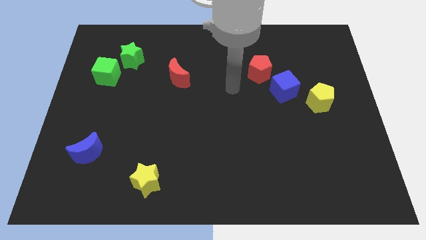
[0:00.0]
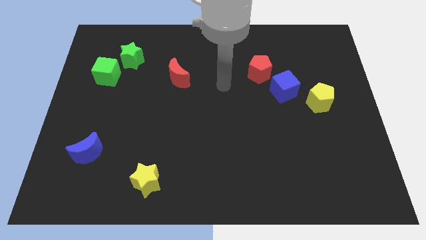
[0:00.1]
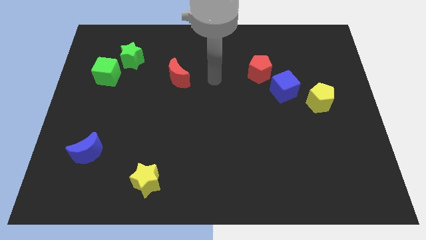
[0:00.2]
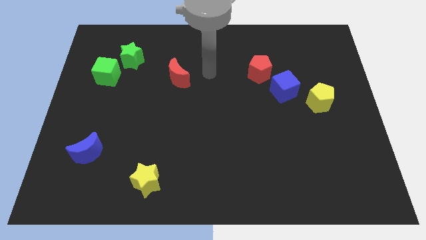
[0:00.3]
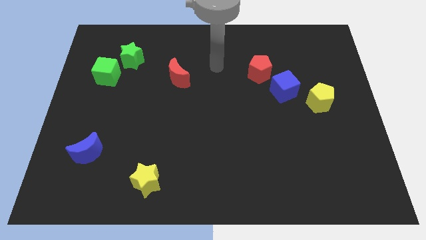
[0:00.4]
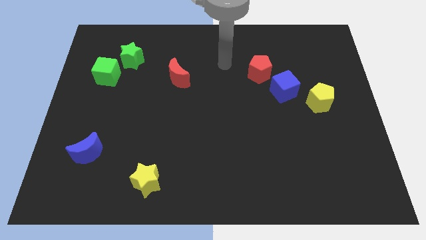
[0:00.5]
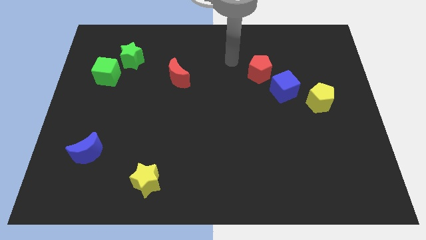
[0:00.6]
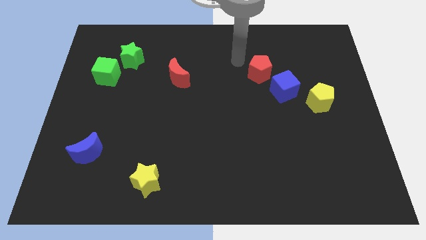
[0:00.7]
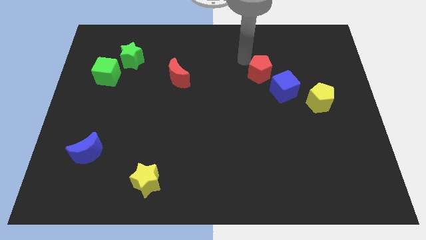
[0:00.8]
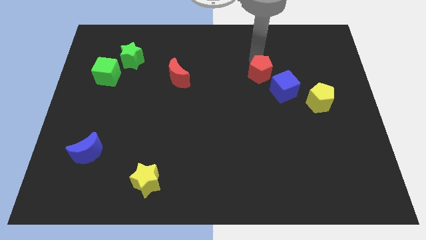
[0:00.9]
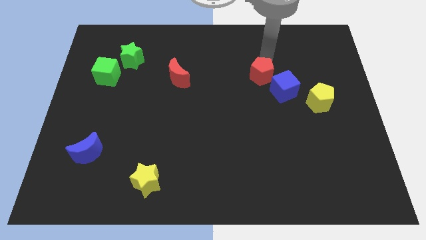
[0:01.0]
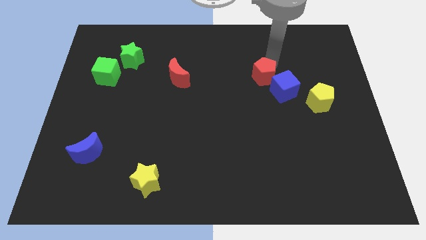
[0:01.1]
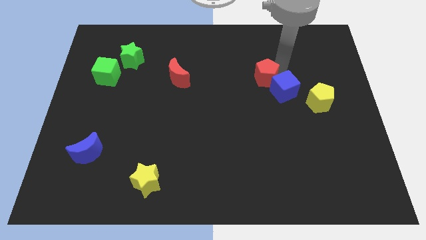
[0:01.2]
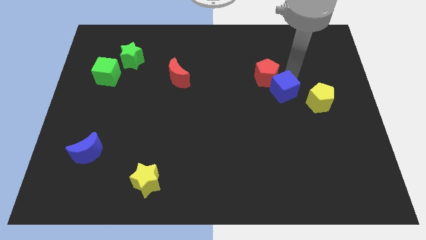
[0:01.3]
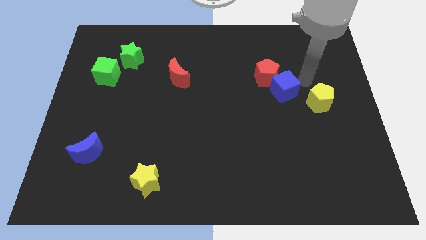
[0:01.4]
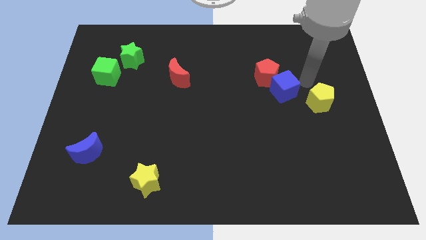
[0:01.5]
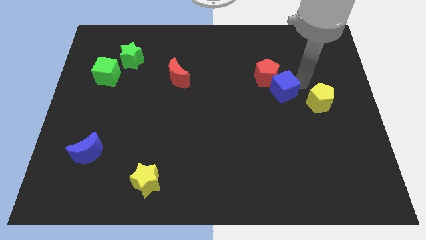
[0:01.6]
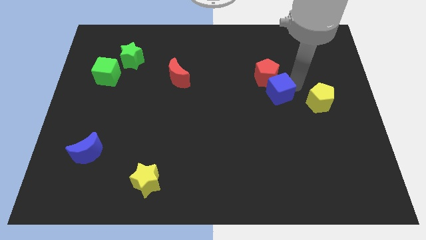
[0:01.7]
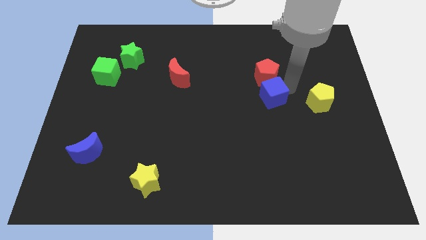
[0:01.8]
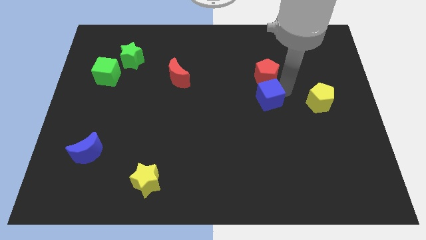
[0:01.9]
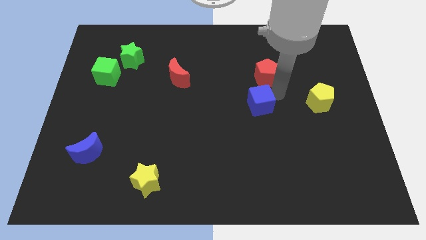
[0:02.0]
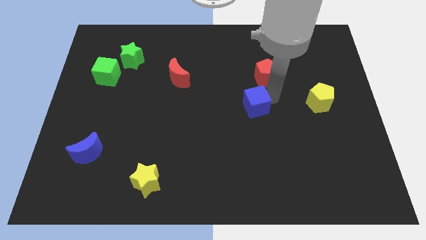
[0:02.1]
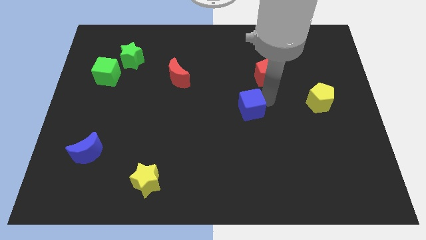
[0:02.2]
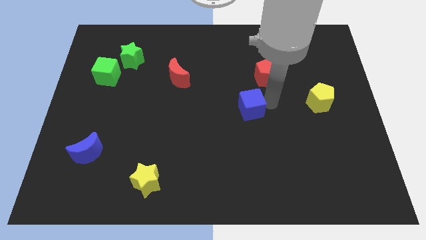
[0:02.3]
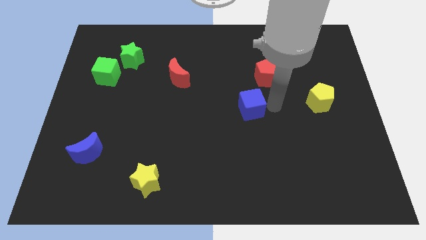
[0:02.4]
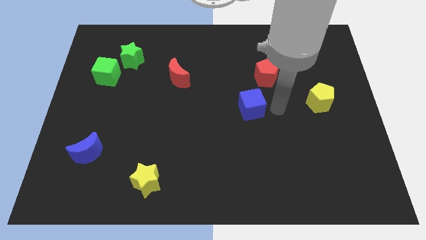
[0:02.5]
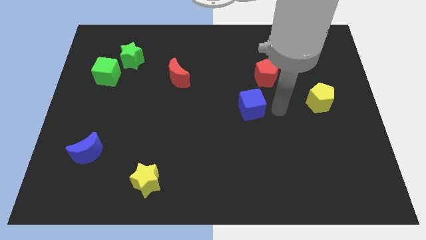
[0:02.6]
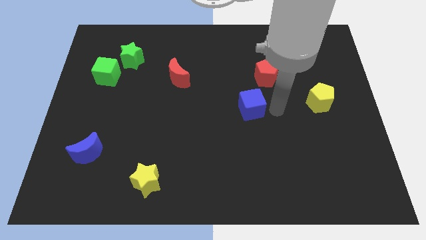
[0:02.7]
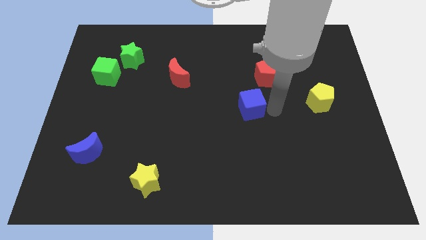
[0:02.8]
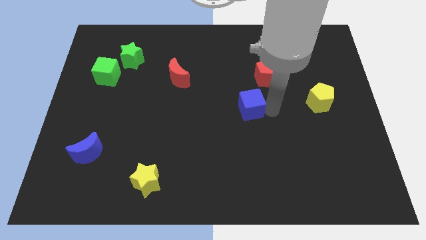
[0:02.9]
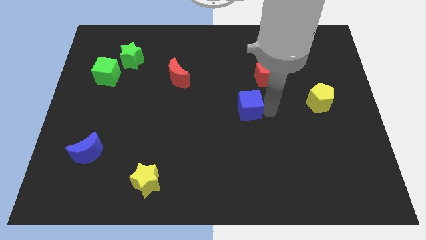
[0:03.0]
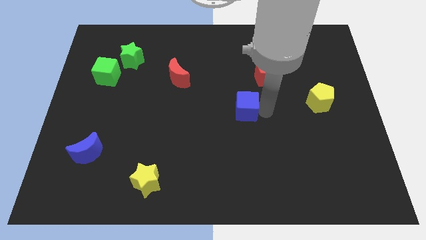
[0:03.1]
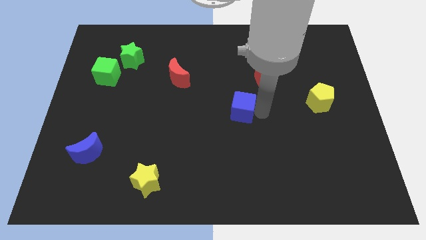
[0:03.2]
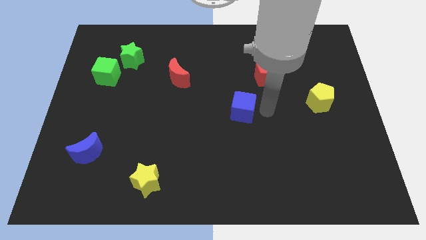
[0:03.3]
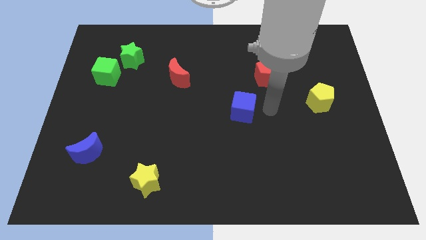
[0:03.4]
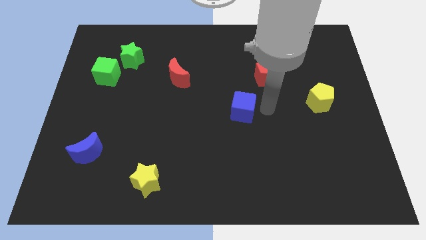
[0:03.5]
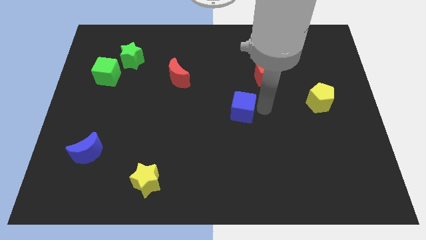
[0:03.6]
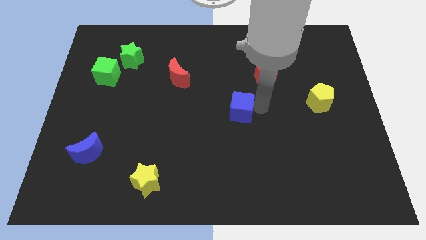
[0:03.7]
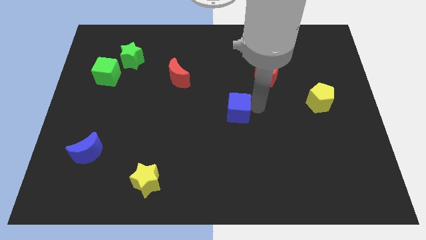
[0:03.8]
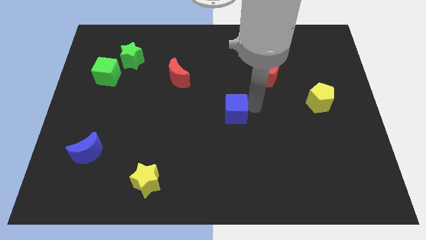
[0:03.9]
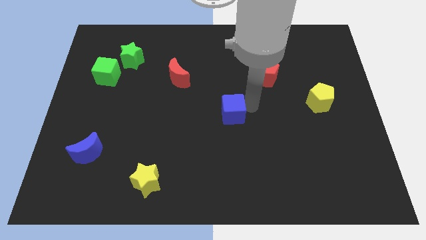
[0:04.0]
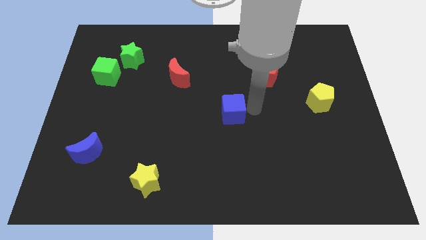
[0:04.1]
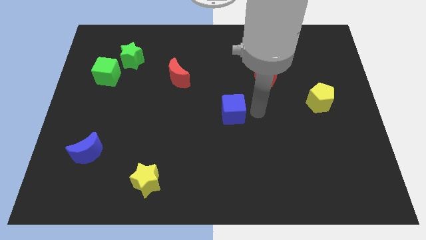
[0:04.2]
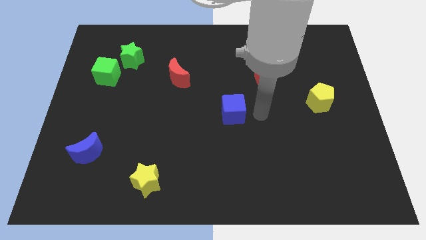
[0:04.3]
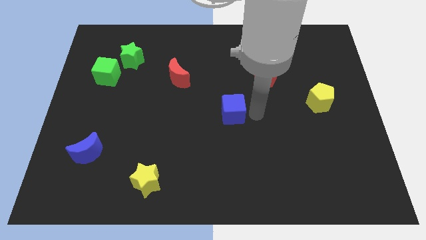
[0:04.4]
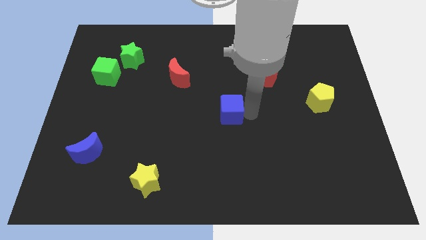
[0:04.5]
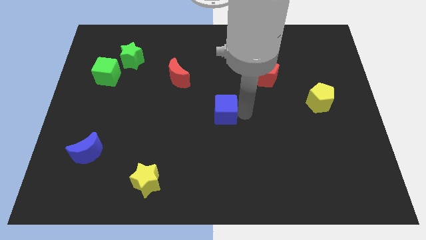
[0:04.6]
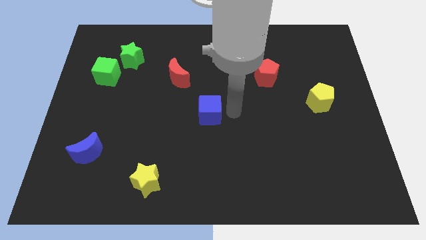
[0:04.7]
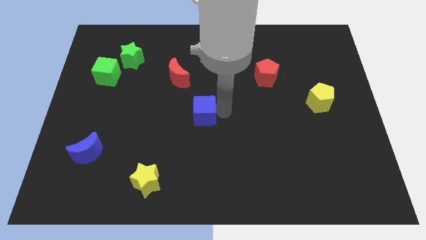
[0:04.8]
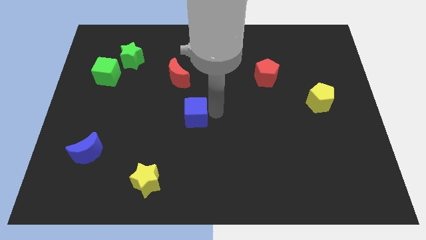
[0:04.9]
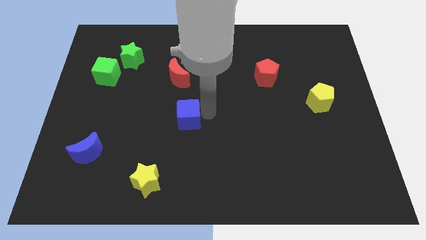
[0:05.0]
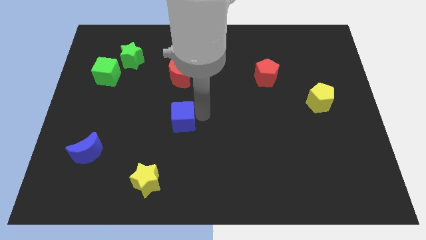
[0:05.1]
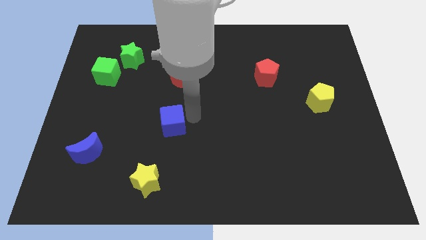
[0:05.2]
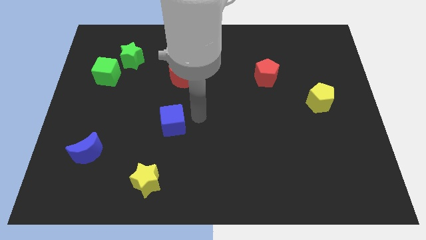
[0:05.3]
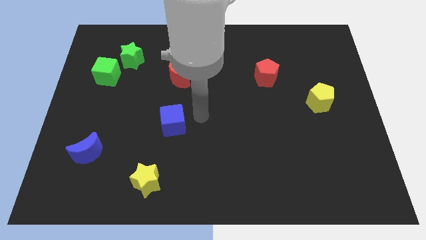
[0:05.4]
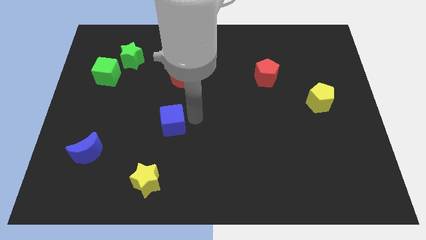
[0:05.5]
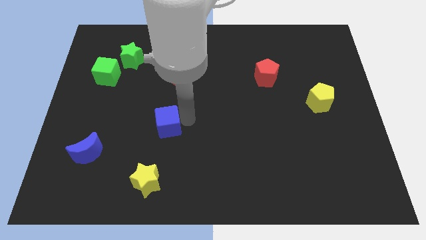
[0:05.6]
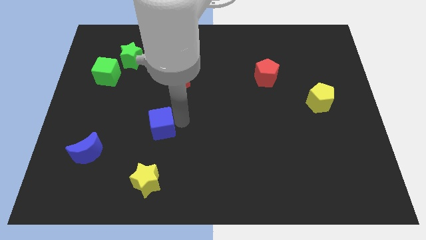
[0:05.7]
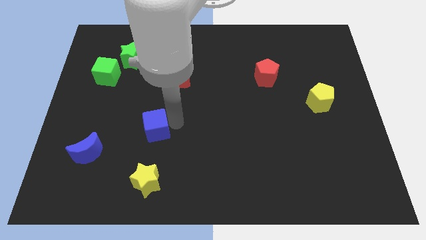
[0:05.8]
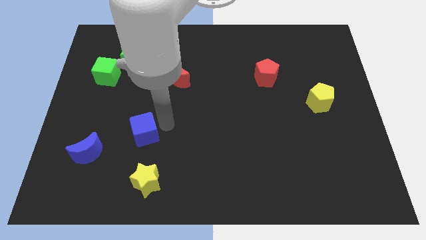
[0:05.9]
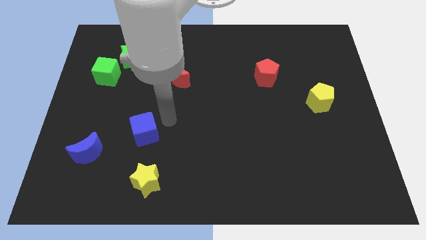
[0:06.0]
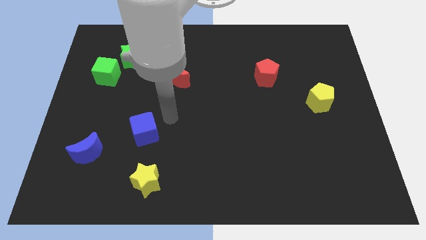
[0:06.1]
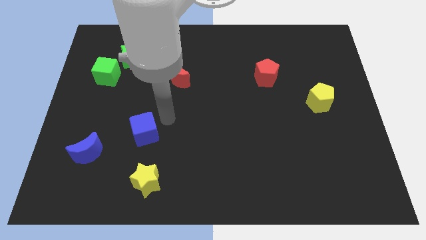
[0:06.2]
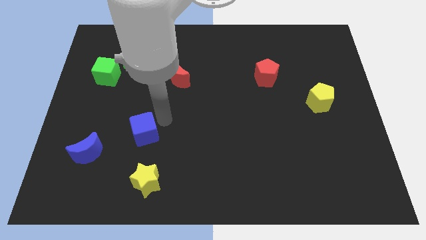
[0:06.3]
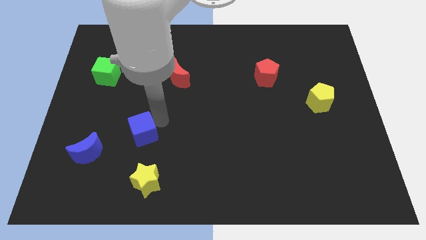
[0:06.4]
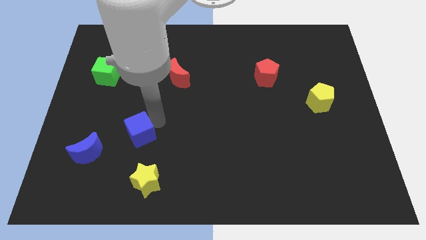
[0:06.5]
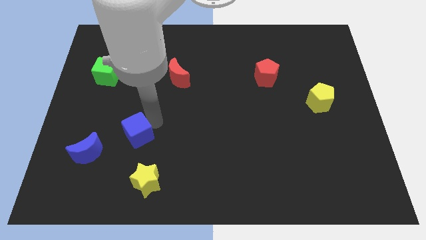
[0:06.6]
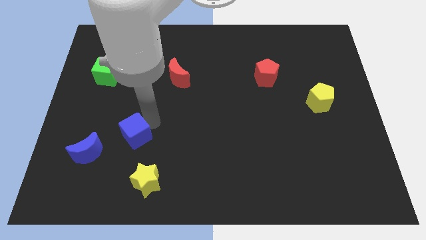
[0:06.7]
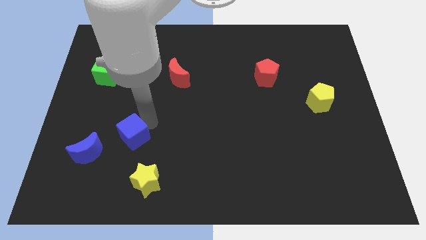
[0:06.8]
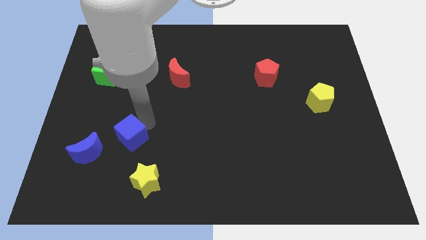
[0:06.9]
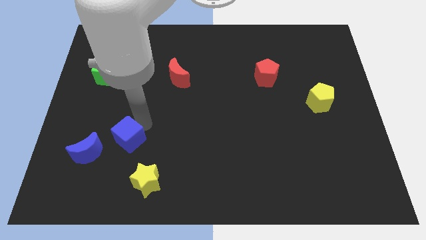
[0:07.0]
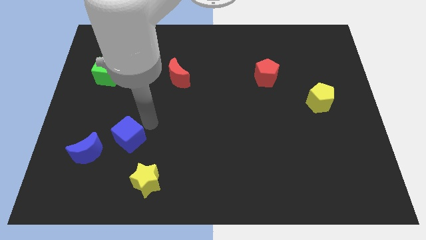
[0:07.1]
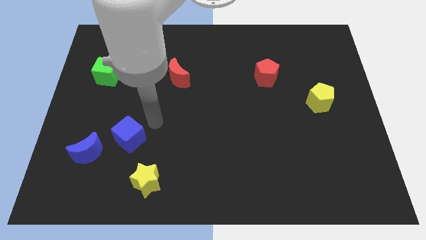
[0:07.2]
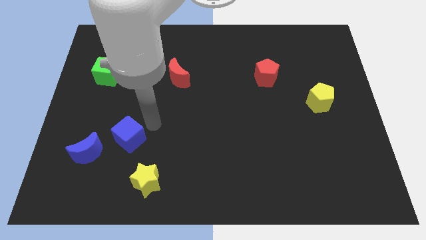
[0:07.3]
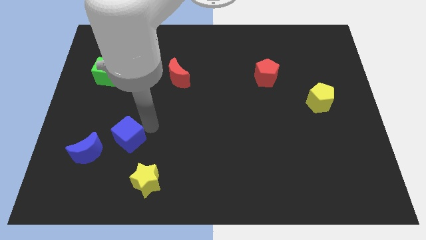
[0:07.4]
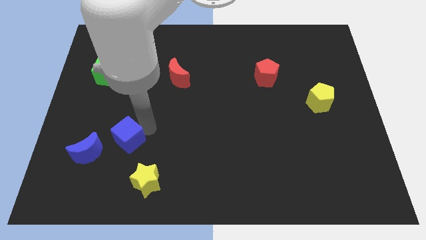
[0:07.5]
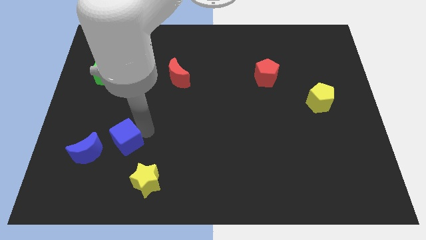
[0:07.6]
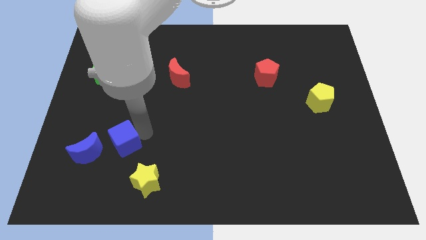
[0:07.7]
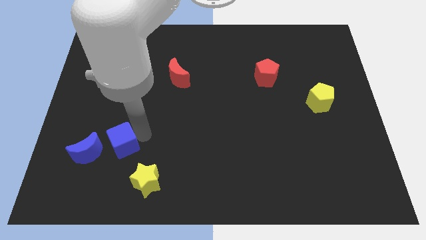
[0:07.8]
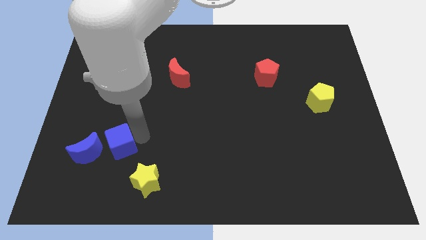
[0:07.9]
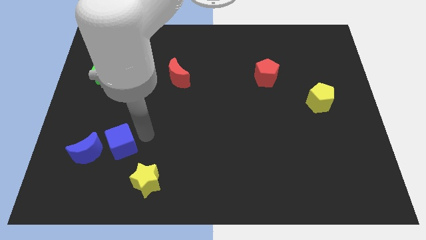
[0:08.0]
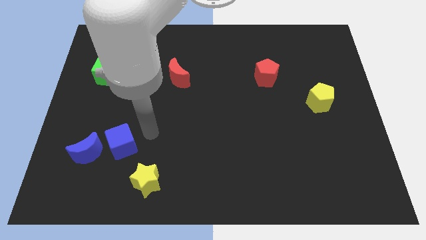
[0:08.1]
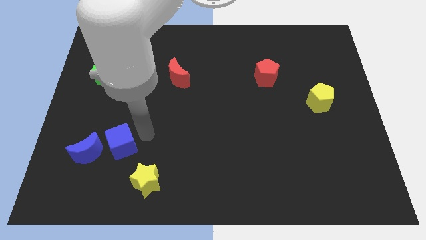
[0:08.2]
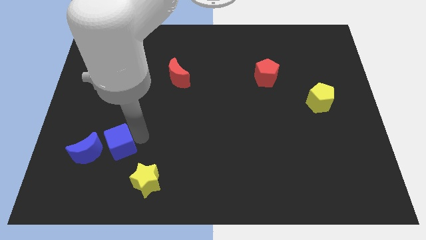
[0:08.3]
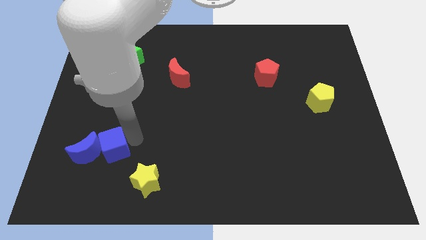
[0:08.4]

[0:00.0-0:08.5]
push the blue cube towards the blue moon
